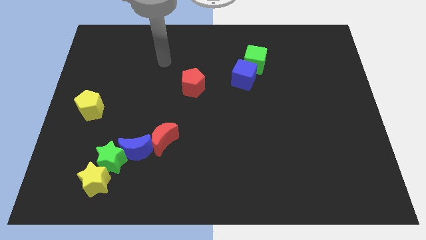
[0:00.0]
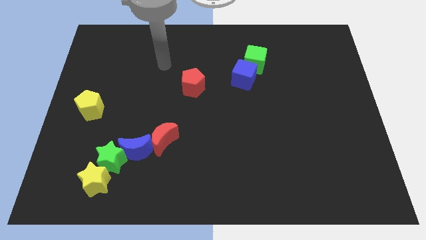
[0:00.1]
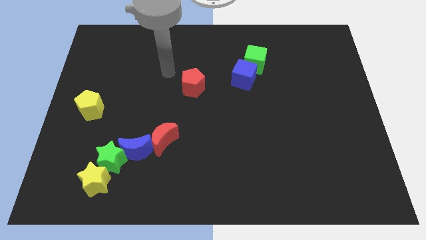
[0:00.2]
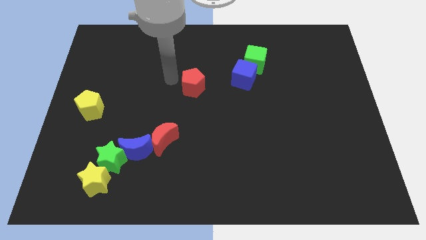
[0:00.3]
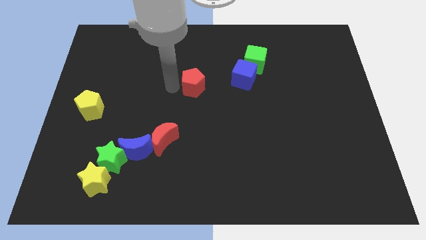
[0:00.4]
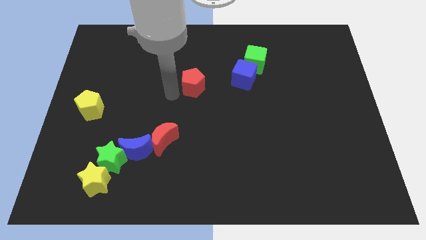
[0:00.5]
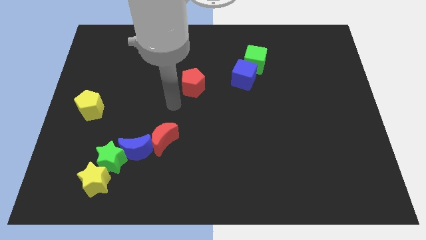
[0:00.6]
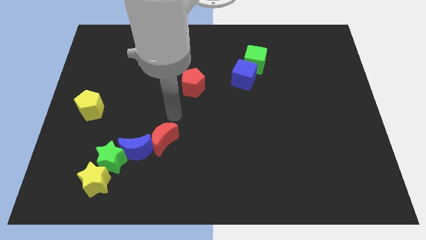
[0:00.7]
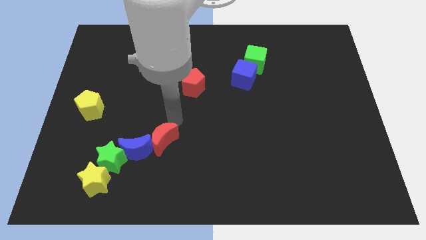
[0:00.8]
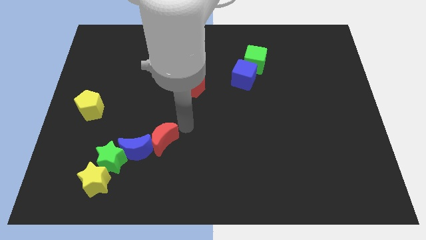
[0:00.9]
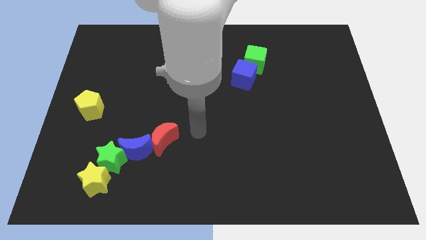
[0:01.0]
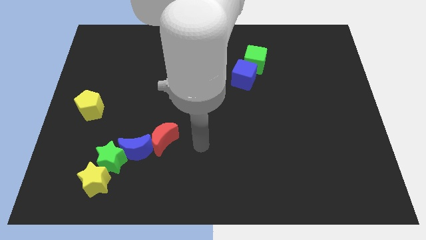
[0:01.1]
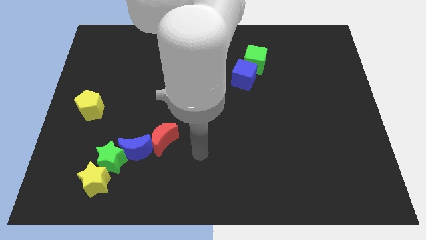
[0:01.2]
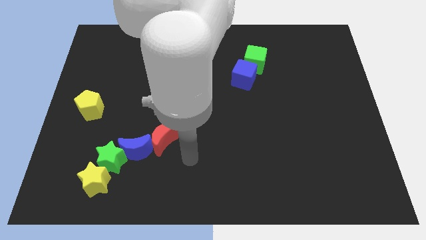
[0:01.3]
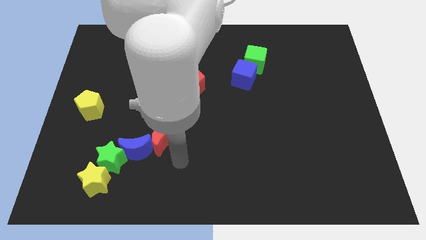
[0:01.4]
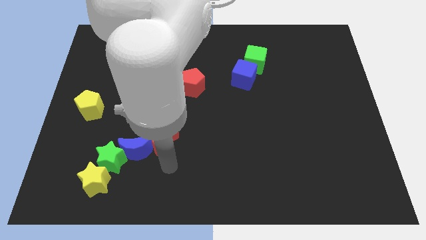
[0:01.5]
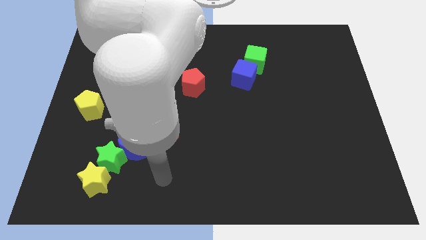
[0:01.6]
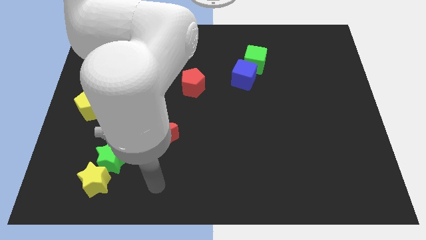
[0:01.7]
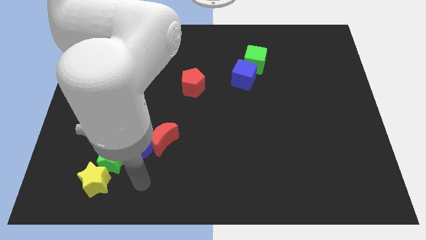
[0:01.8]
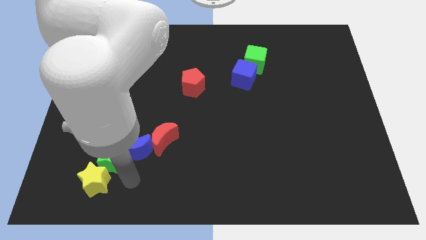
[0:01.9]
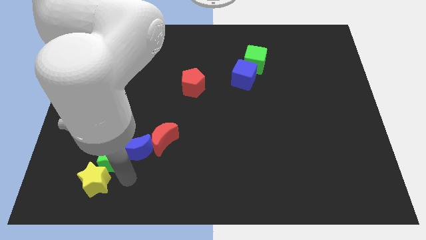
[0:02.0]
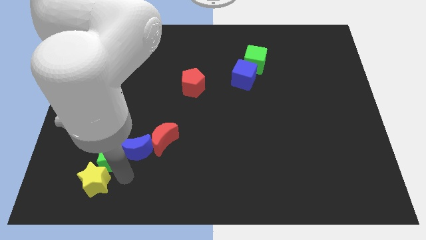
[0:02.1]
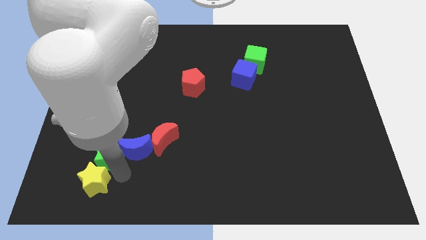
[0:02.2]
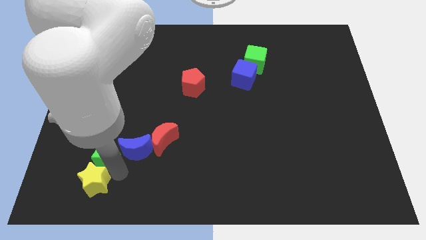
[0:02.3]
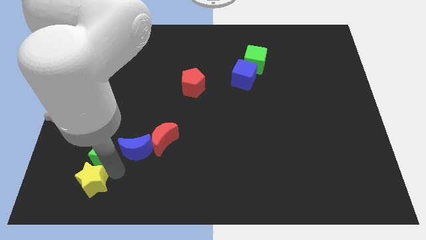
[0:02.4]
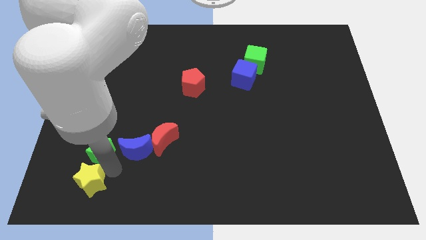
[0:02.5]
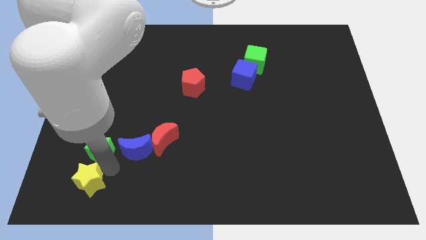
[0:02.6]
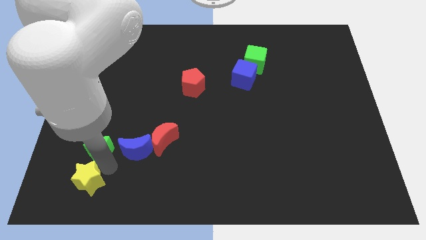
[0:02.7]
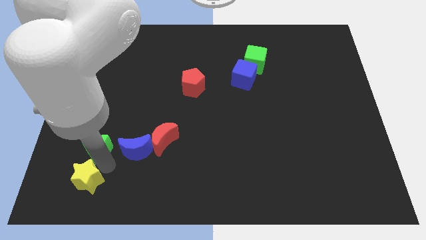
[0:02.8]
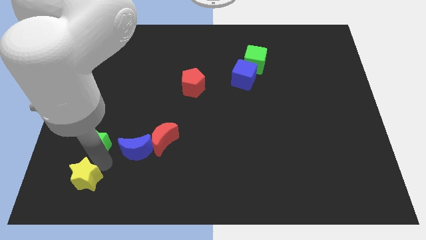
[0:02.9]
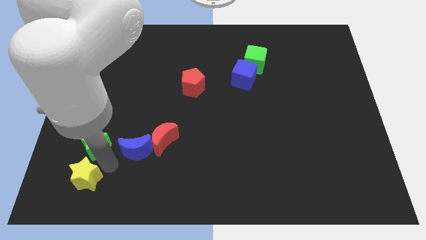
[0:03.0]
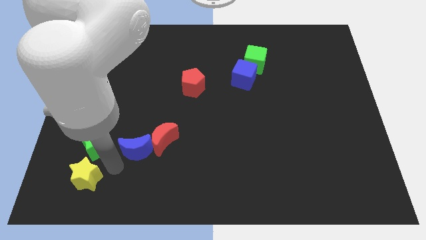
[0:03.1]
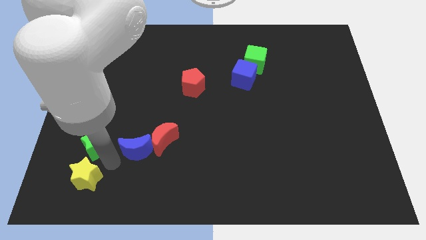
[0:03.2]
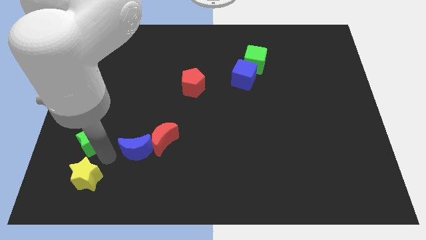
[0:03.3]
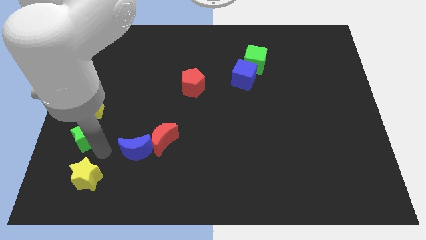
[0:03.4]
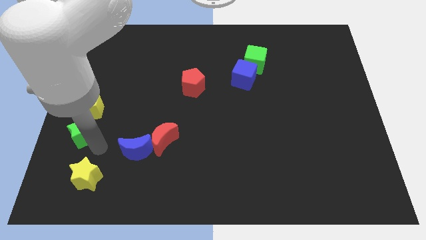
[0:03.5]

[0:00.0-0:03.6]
move the green star away from the blue moon and yellow star

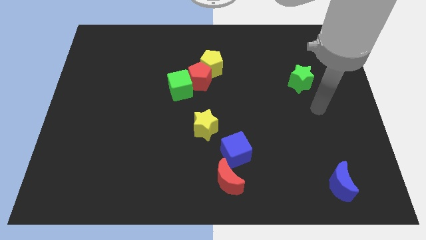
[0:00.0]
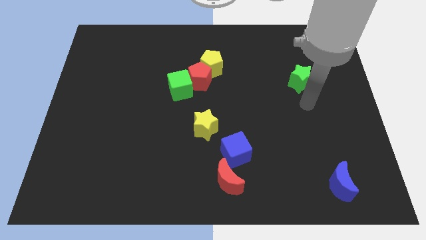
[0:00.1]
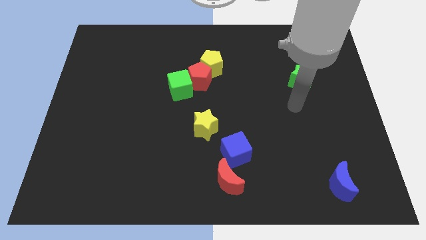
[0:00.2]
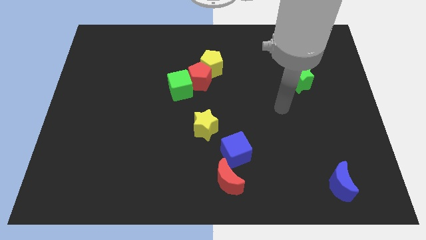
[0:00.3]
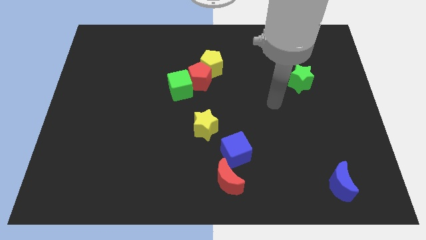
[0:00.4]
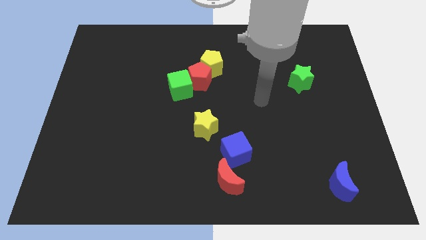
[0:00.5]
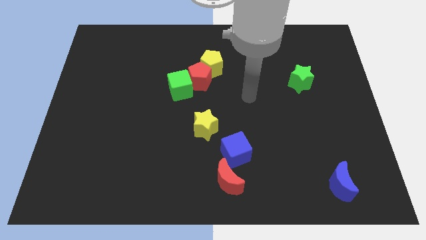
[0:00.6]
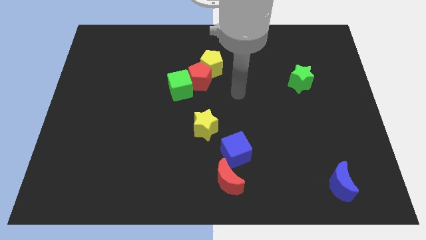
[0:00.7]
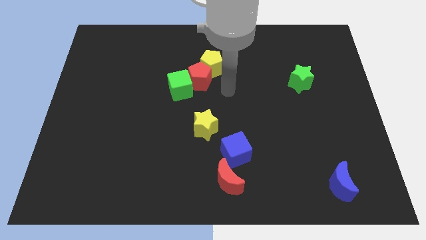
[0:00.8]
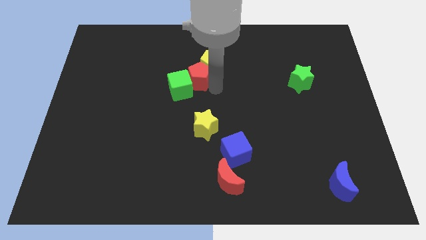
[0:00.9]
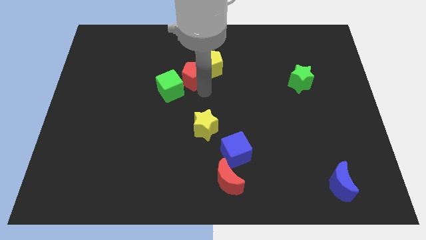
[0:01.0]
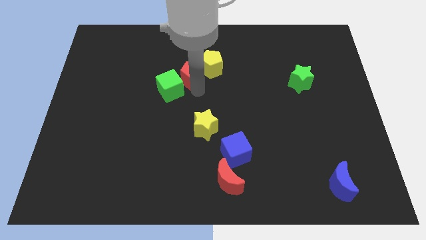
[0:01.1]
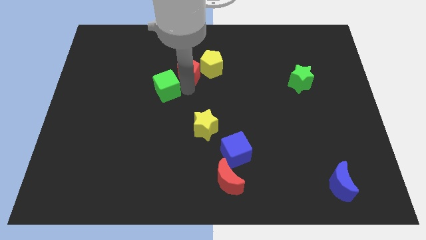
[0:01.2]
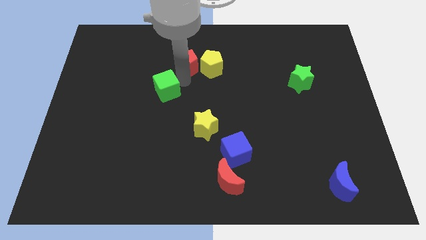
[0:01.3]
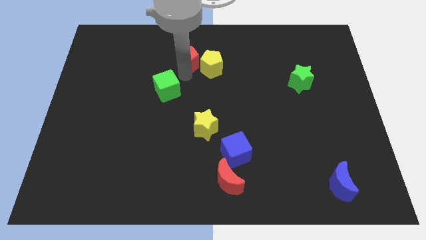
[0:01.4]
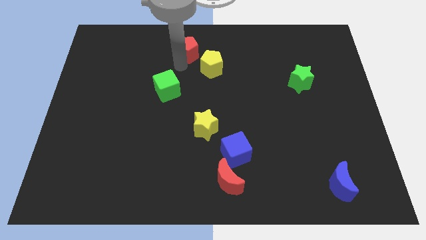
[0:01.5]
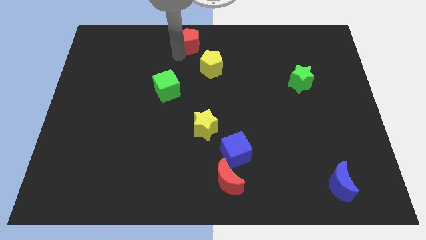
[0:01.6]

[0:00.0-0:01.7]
separate the red pentagon from the yellow pentagon and green cube

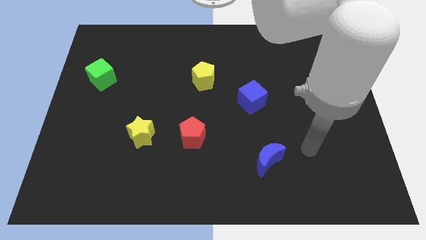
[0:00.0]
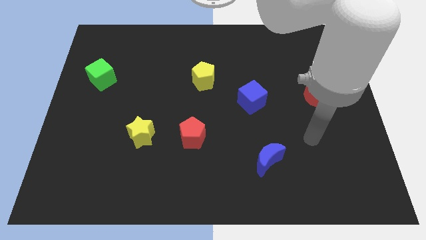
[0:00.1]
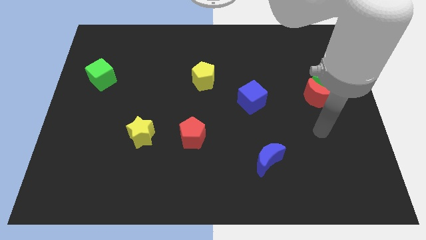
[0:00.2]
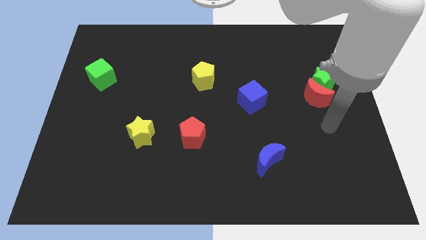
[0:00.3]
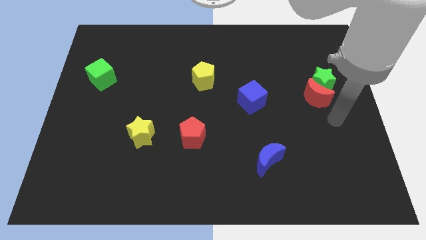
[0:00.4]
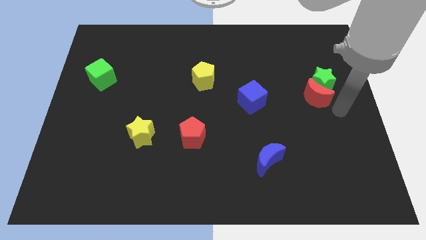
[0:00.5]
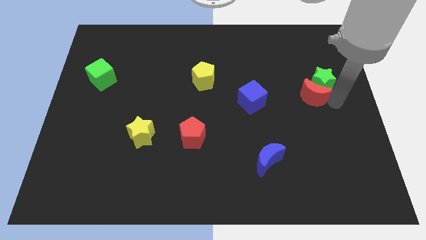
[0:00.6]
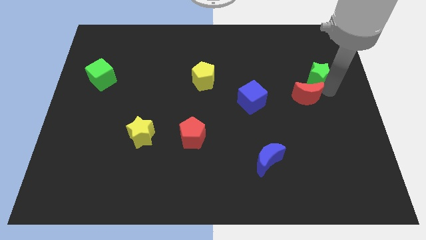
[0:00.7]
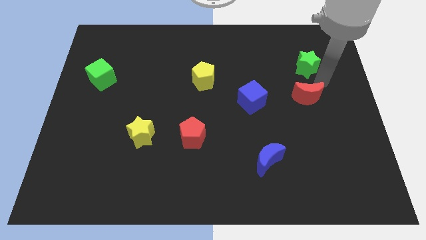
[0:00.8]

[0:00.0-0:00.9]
separate the red moon from the green star

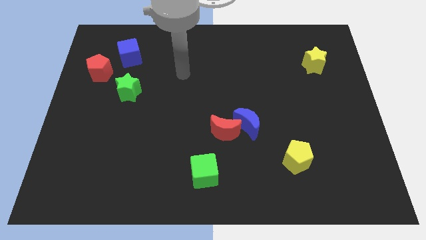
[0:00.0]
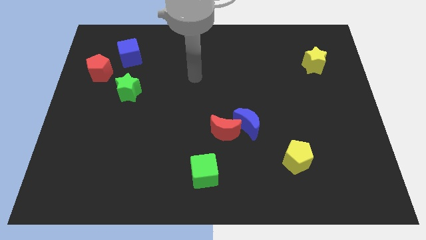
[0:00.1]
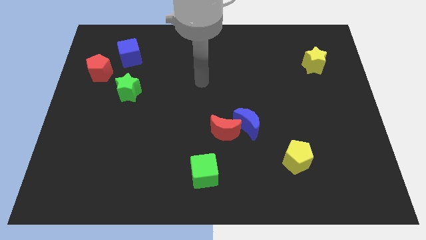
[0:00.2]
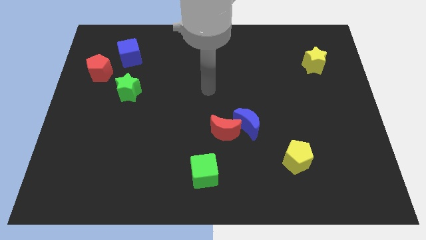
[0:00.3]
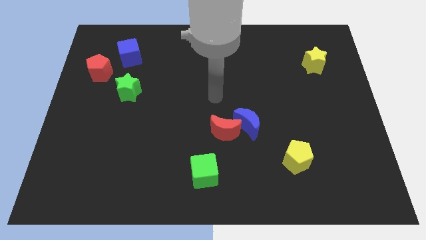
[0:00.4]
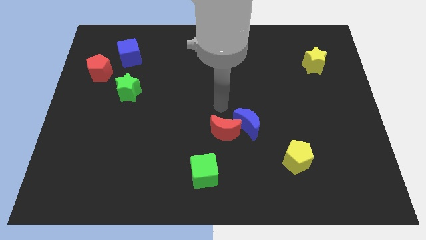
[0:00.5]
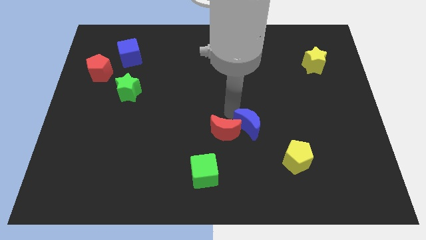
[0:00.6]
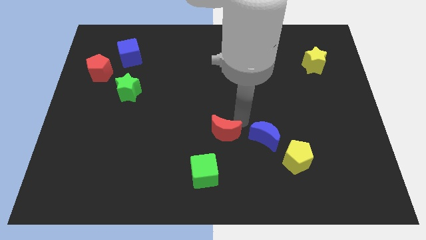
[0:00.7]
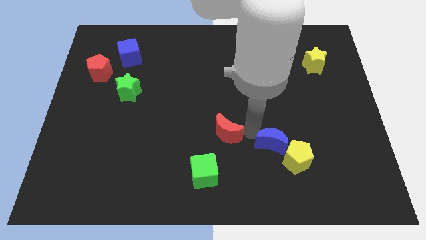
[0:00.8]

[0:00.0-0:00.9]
move the red moon away from the blue moon

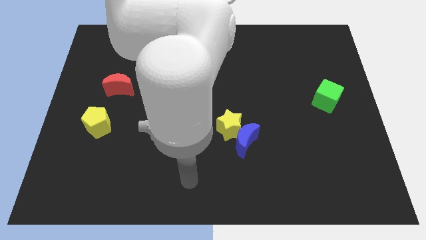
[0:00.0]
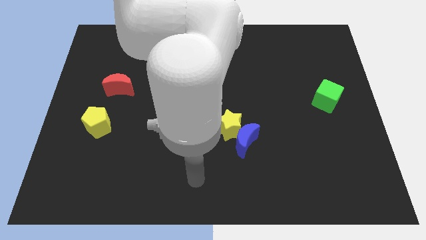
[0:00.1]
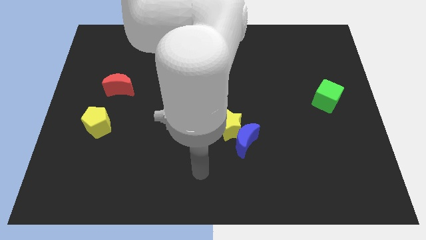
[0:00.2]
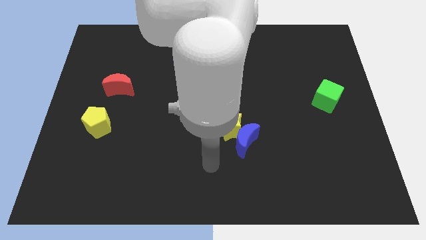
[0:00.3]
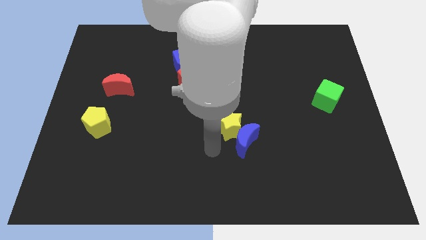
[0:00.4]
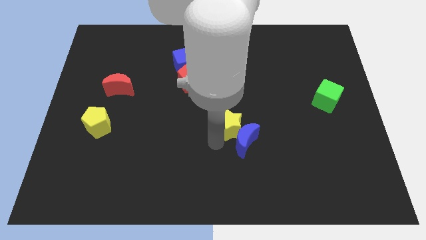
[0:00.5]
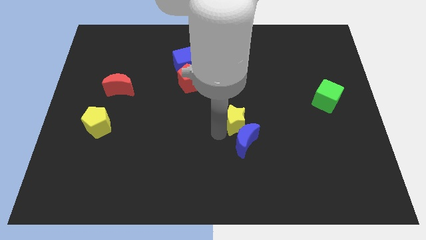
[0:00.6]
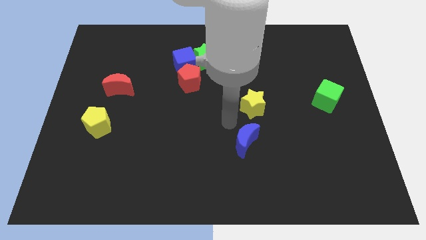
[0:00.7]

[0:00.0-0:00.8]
pull the blue moon apart from the yellow star

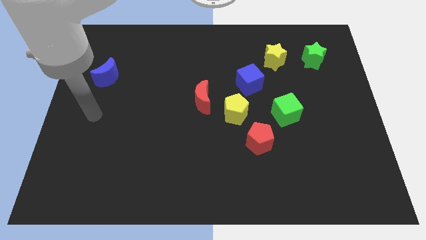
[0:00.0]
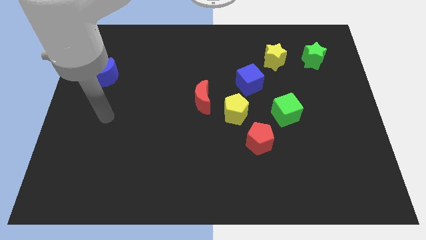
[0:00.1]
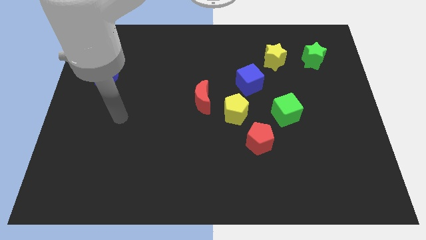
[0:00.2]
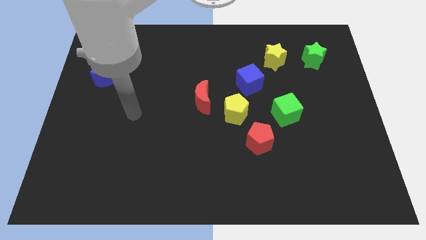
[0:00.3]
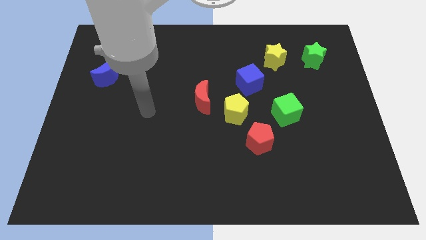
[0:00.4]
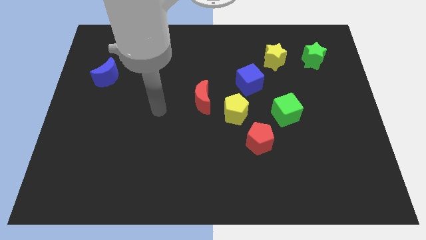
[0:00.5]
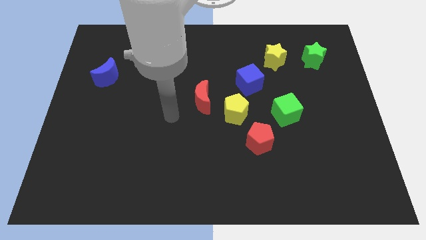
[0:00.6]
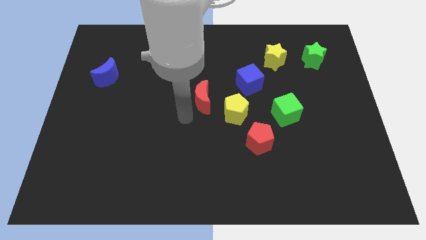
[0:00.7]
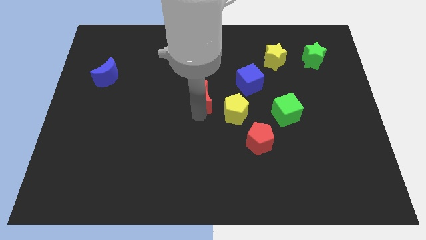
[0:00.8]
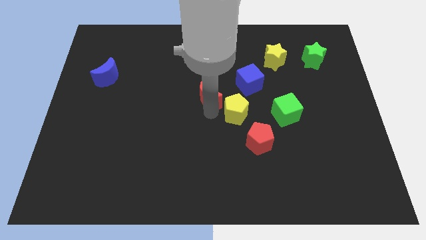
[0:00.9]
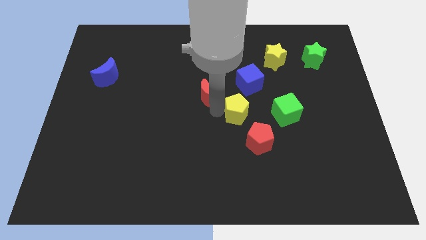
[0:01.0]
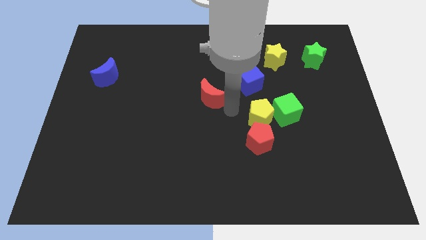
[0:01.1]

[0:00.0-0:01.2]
pull the red moon apart from the yellow pentagon

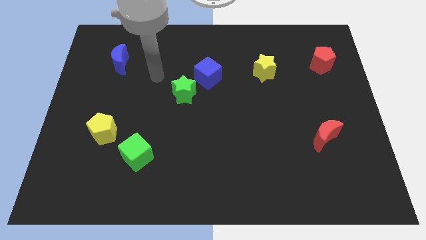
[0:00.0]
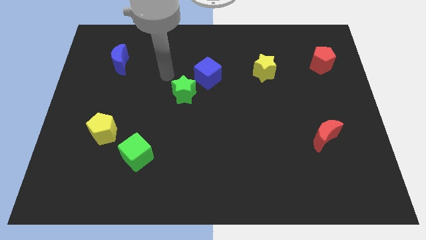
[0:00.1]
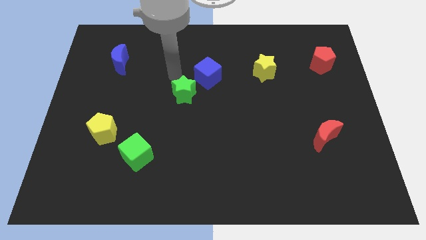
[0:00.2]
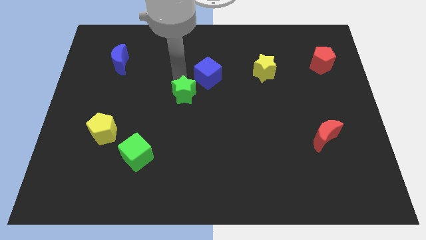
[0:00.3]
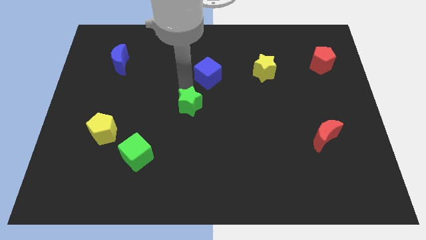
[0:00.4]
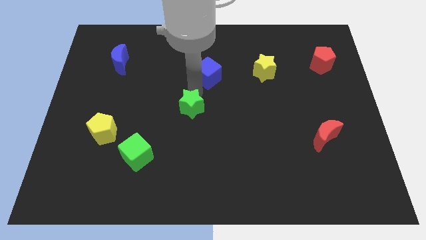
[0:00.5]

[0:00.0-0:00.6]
move the blue cube away from the green star
